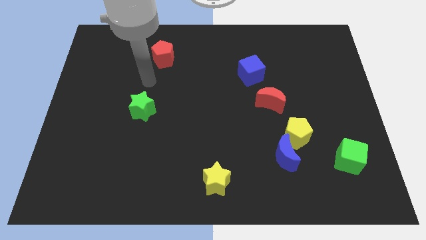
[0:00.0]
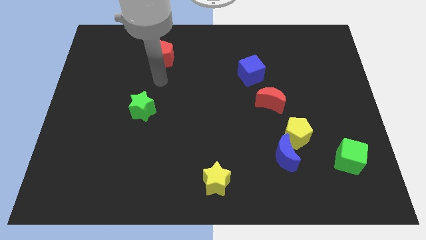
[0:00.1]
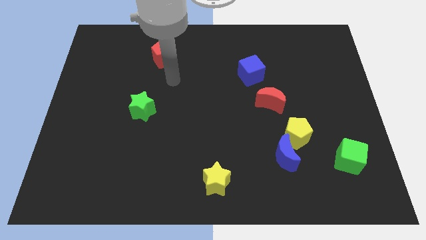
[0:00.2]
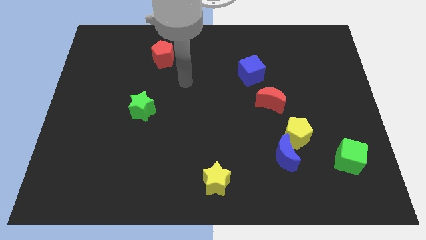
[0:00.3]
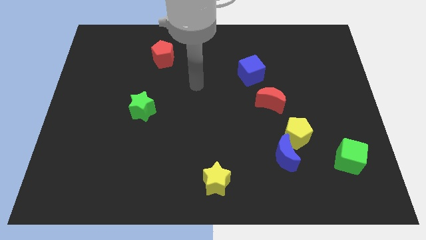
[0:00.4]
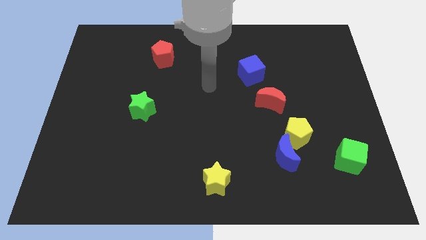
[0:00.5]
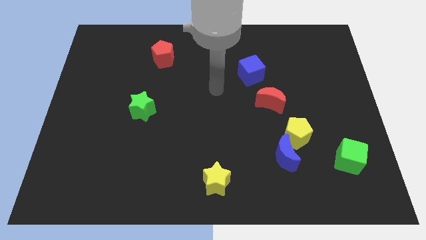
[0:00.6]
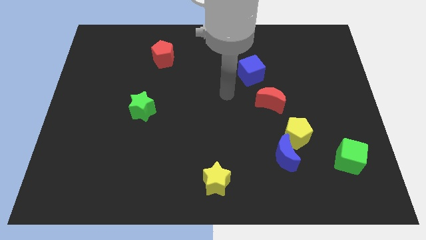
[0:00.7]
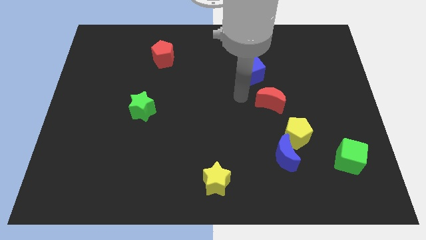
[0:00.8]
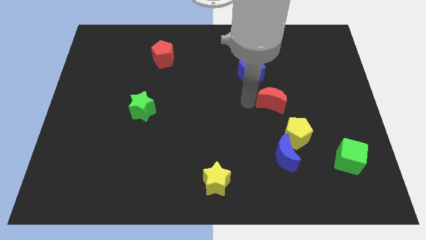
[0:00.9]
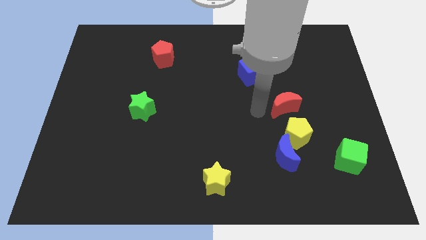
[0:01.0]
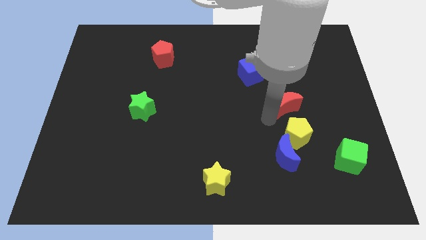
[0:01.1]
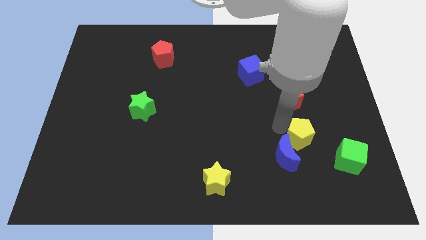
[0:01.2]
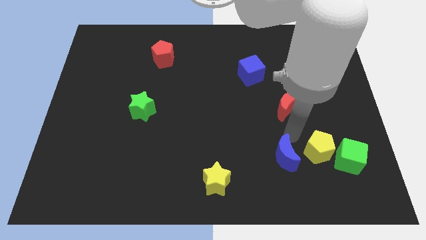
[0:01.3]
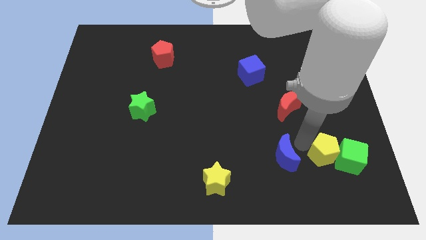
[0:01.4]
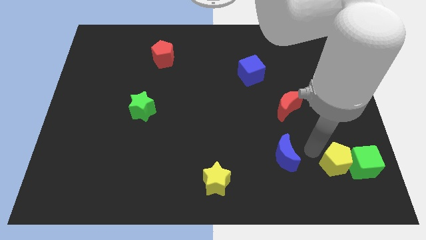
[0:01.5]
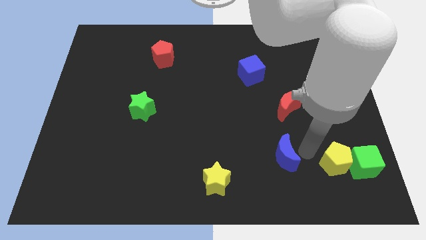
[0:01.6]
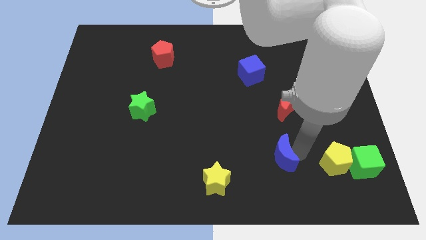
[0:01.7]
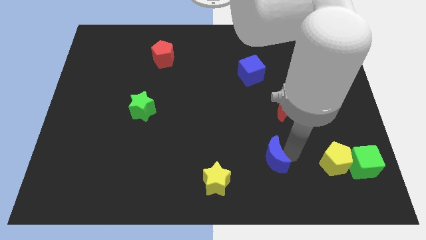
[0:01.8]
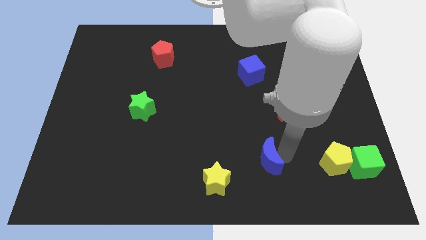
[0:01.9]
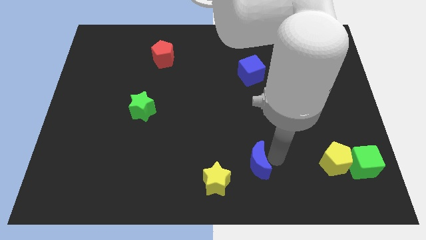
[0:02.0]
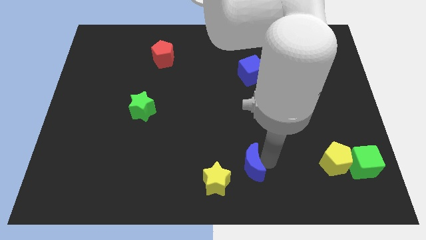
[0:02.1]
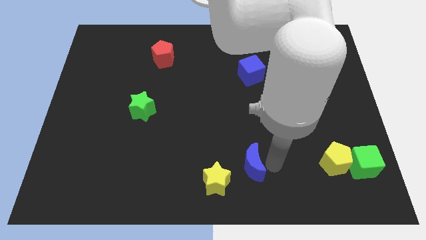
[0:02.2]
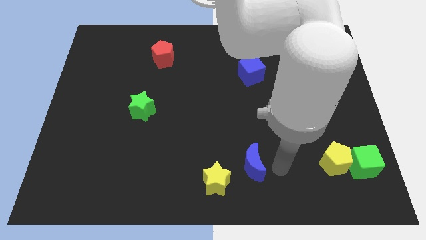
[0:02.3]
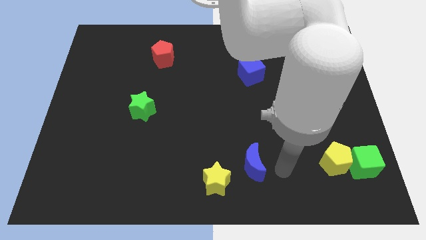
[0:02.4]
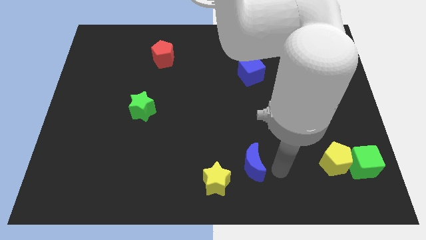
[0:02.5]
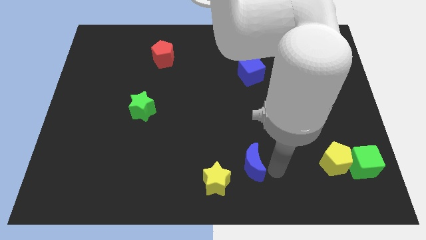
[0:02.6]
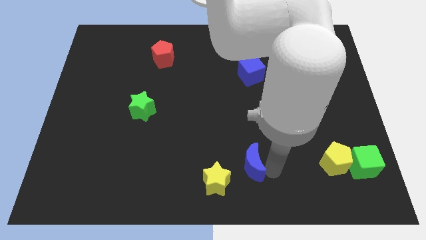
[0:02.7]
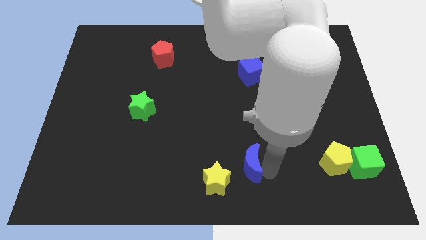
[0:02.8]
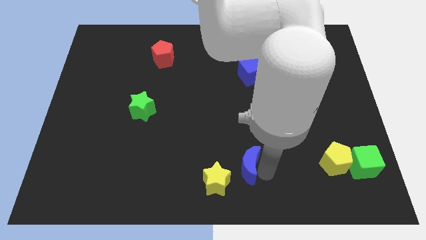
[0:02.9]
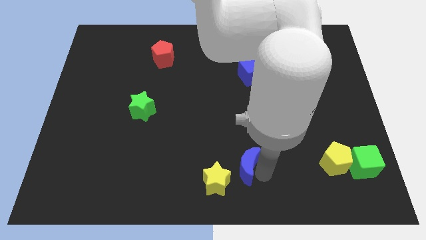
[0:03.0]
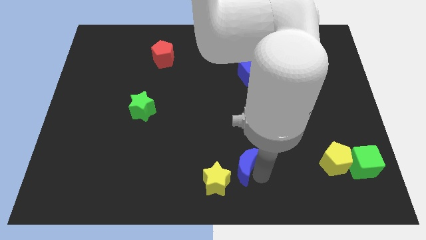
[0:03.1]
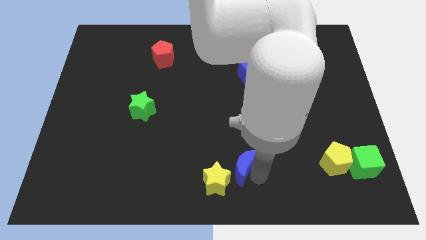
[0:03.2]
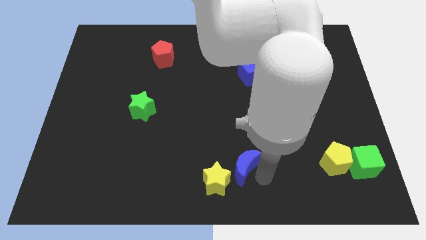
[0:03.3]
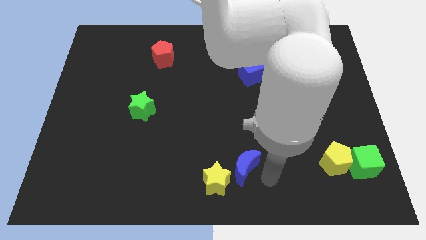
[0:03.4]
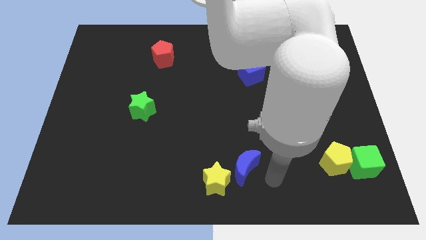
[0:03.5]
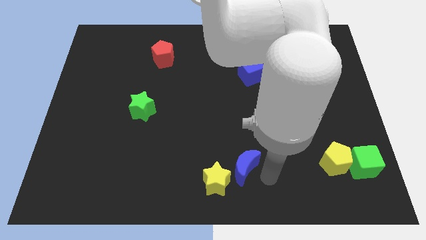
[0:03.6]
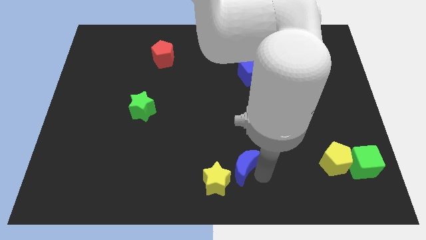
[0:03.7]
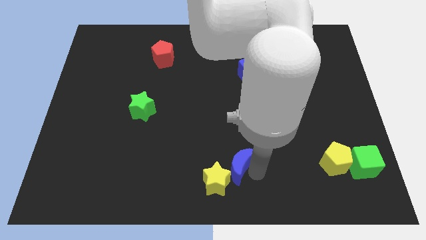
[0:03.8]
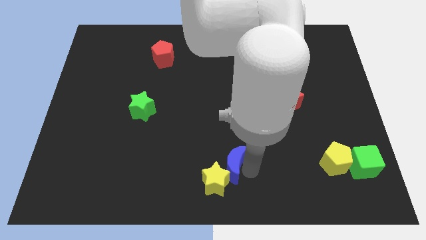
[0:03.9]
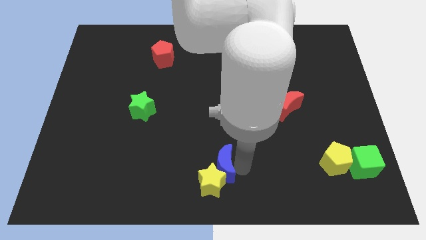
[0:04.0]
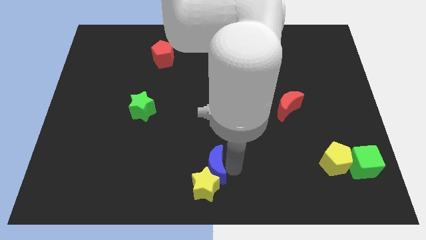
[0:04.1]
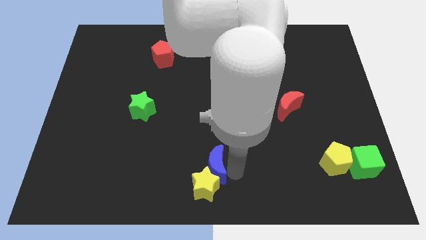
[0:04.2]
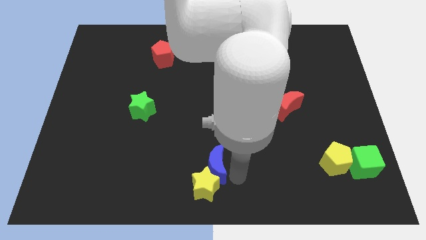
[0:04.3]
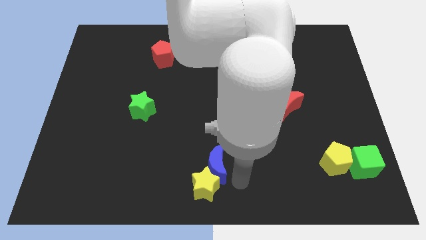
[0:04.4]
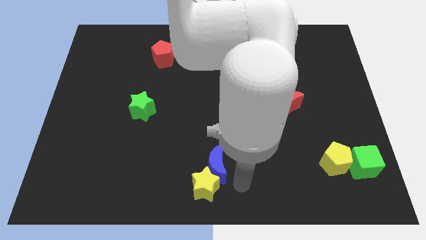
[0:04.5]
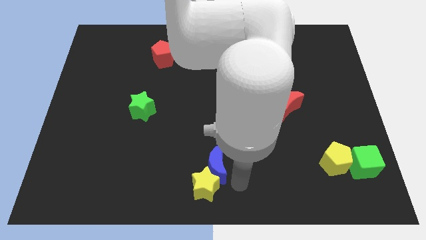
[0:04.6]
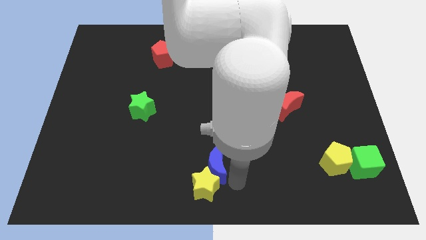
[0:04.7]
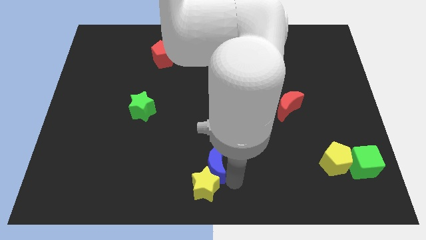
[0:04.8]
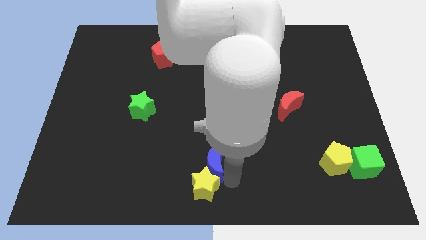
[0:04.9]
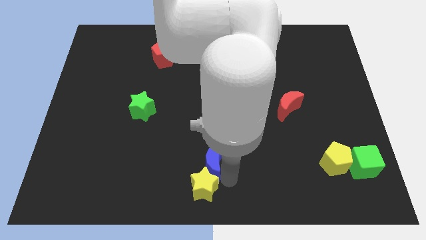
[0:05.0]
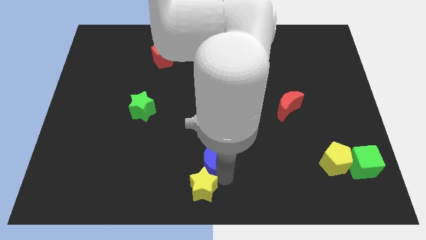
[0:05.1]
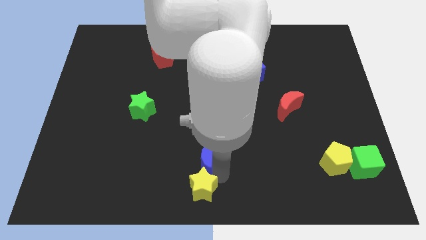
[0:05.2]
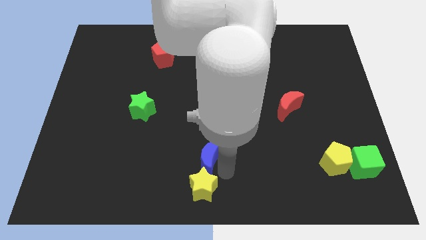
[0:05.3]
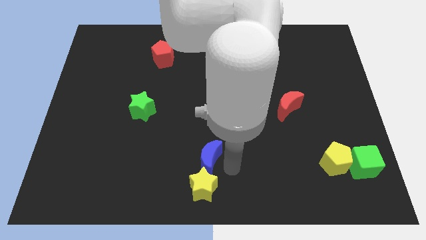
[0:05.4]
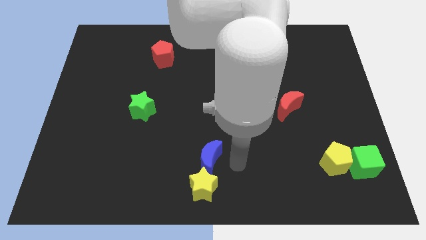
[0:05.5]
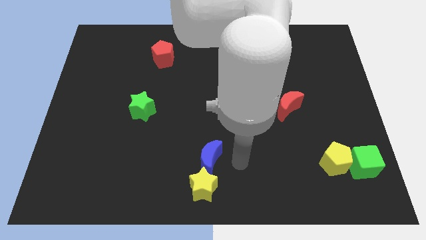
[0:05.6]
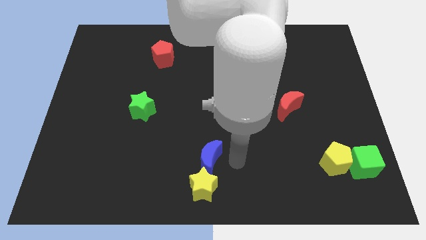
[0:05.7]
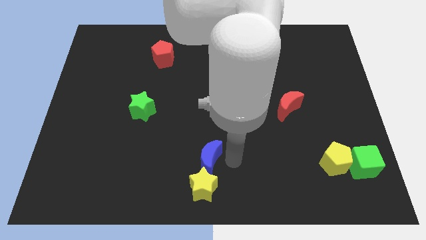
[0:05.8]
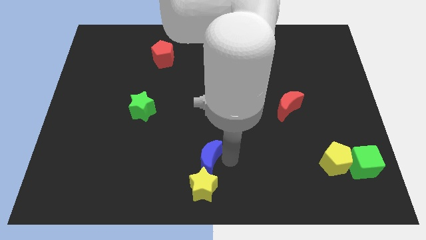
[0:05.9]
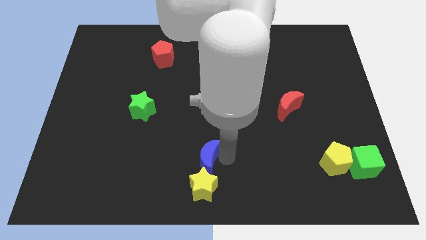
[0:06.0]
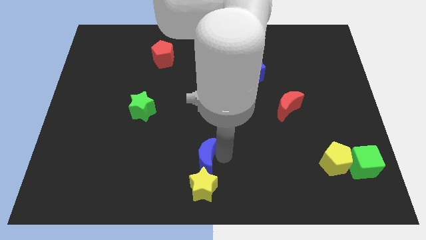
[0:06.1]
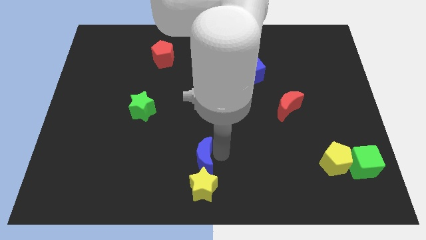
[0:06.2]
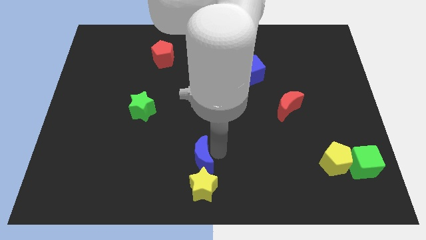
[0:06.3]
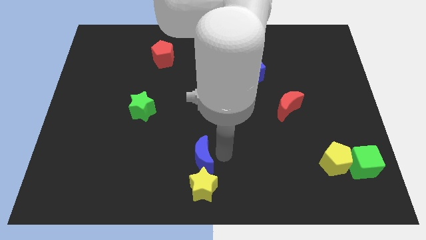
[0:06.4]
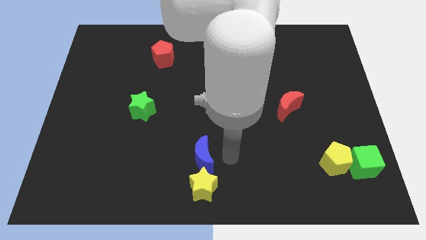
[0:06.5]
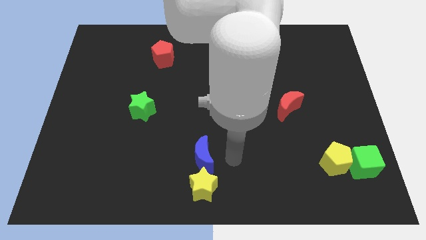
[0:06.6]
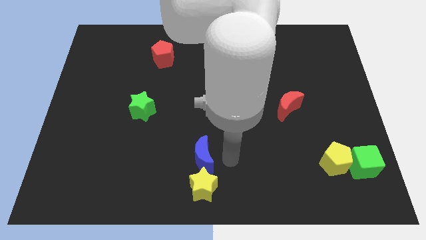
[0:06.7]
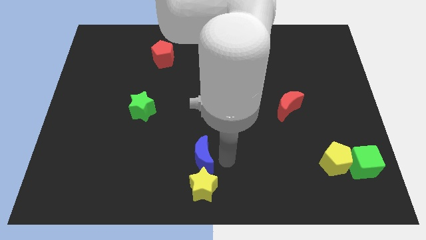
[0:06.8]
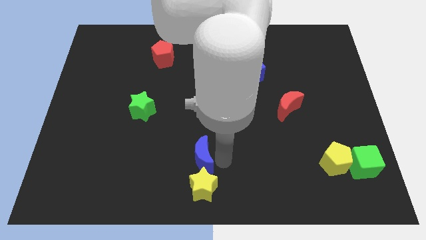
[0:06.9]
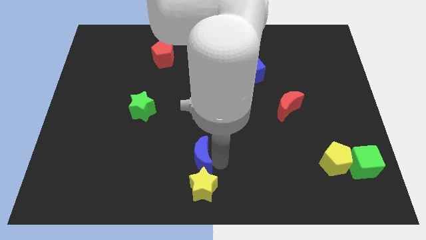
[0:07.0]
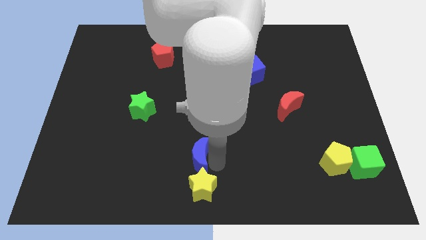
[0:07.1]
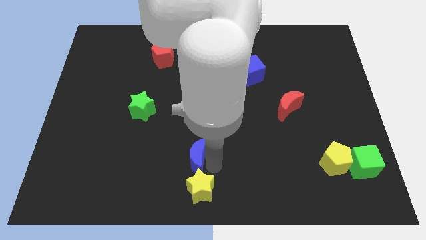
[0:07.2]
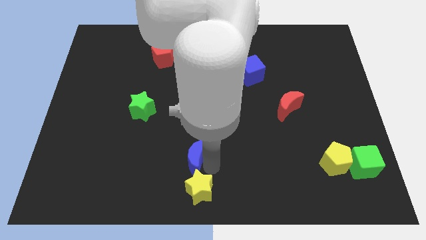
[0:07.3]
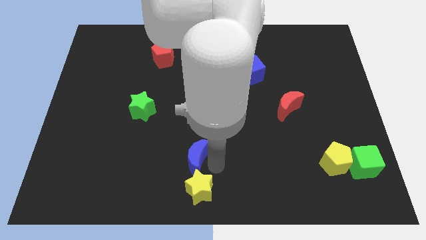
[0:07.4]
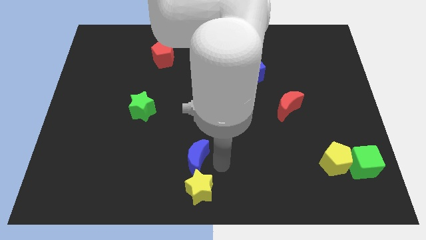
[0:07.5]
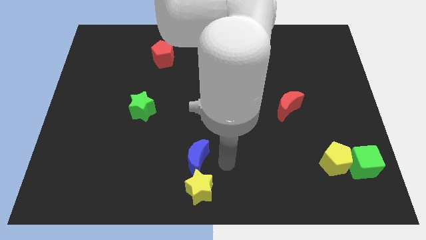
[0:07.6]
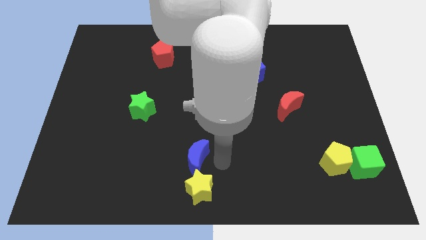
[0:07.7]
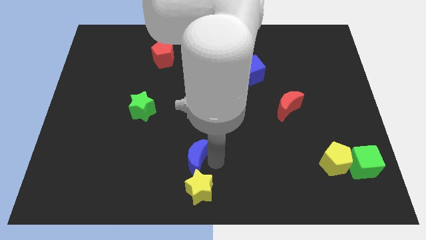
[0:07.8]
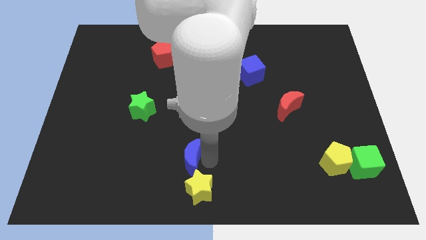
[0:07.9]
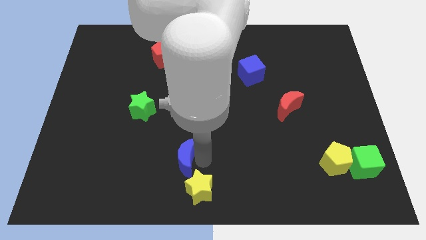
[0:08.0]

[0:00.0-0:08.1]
push the blue moon left
